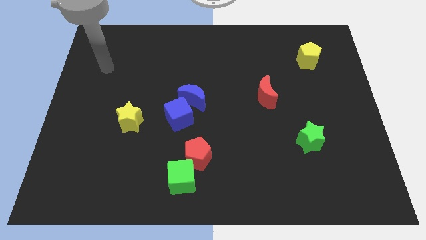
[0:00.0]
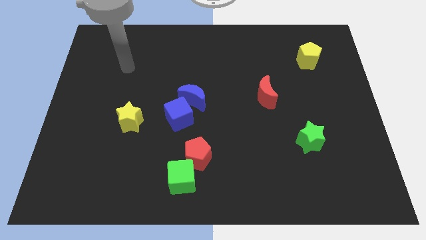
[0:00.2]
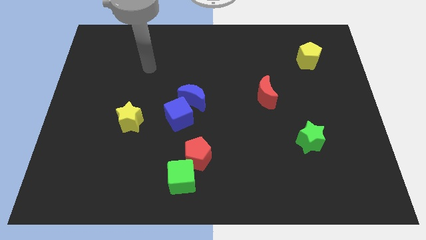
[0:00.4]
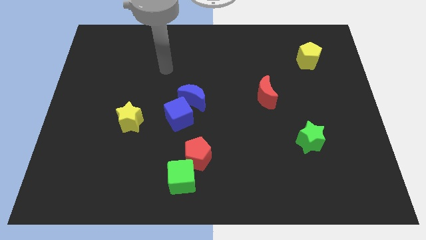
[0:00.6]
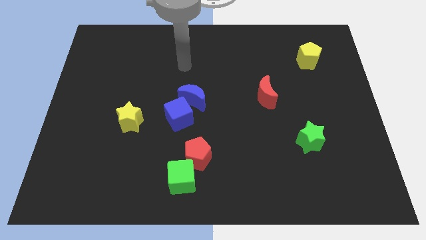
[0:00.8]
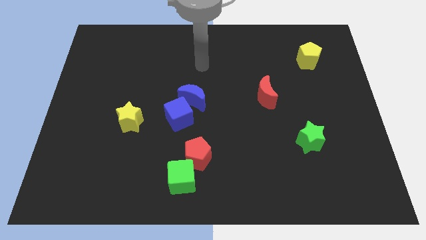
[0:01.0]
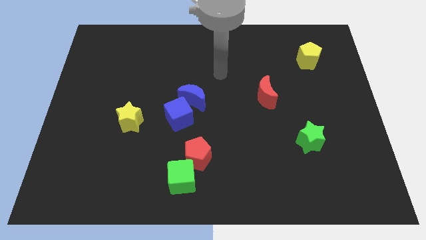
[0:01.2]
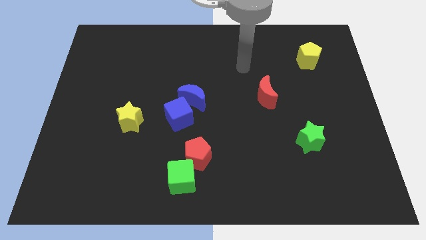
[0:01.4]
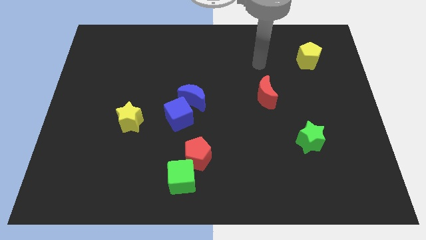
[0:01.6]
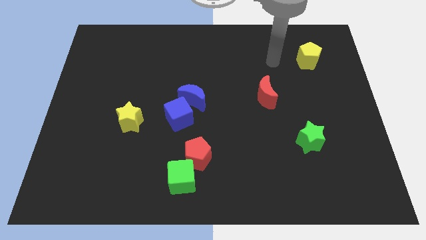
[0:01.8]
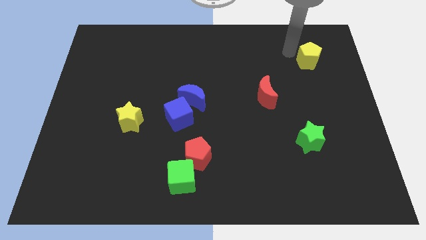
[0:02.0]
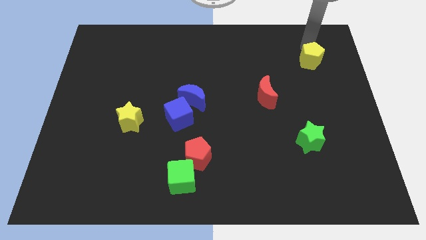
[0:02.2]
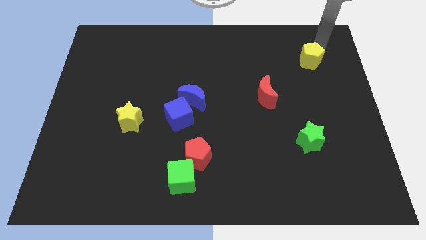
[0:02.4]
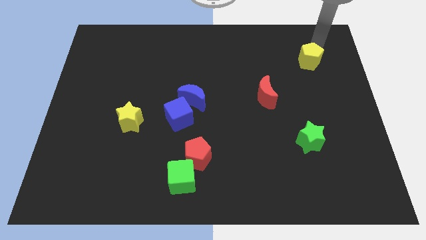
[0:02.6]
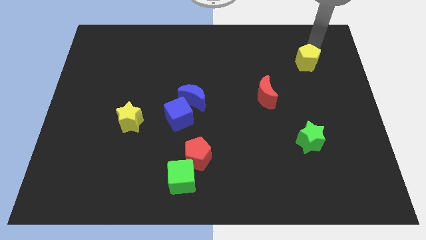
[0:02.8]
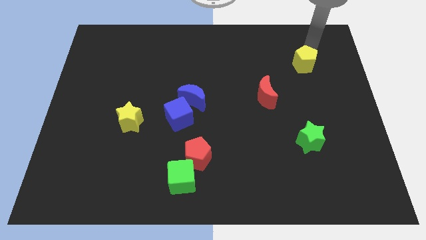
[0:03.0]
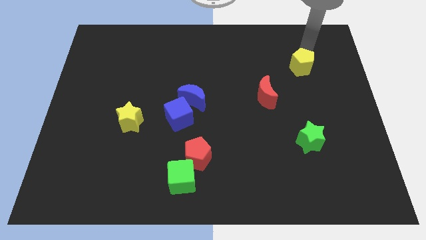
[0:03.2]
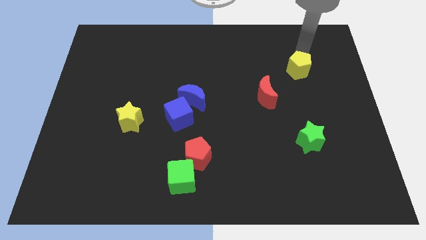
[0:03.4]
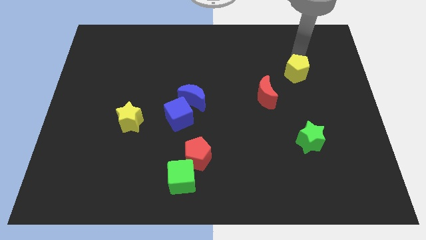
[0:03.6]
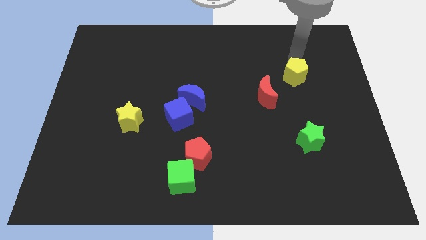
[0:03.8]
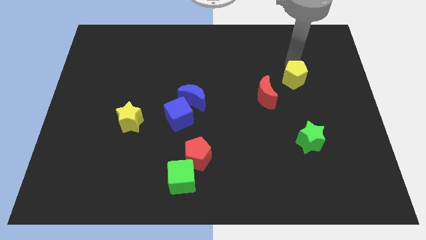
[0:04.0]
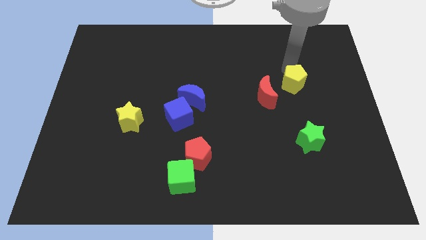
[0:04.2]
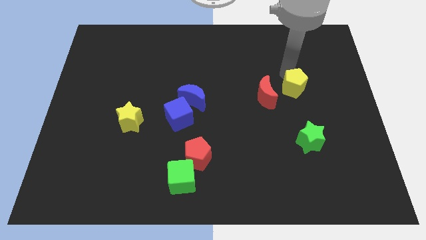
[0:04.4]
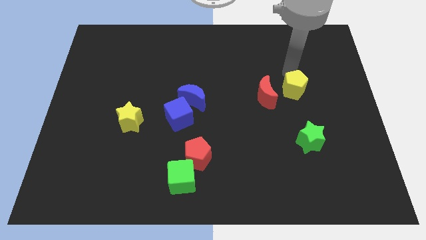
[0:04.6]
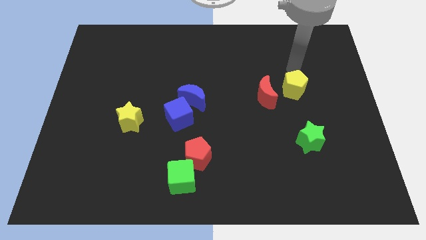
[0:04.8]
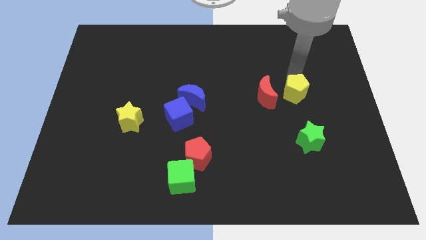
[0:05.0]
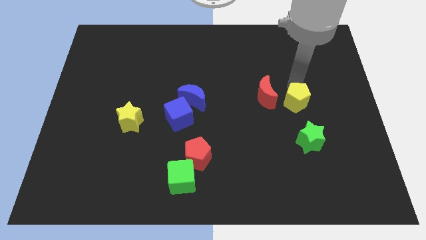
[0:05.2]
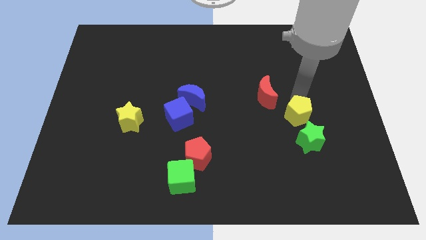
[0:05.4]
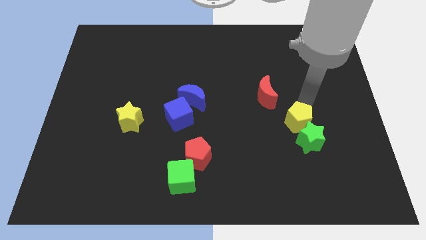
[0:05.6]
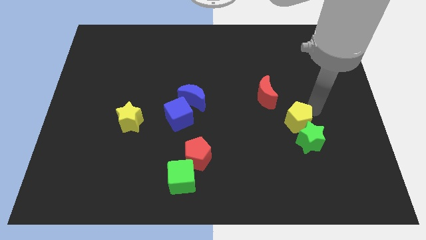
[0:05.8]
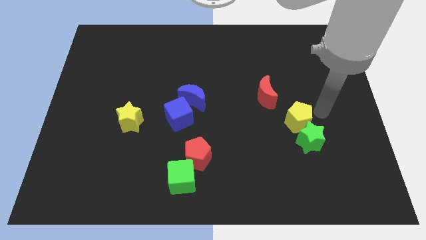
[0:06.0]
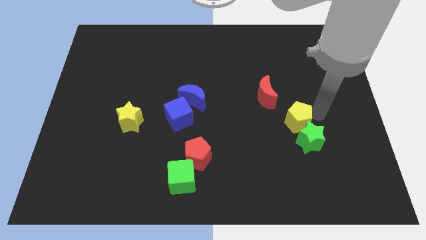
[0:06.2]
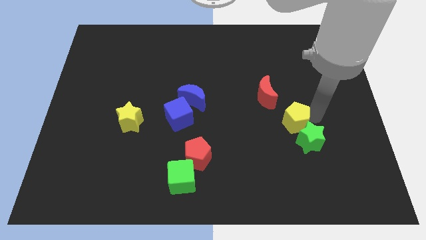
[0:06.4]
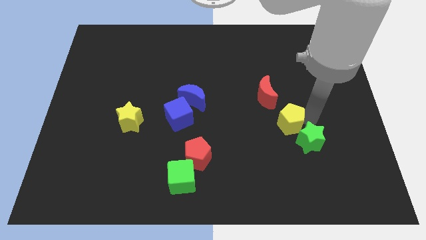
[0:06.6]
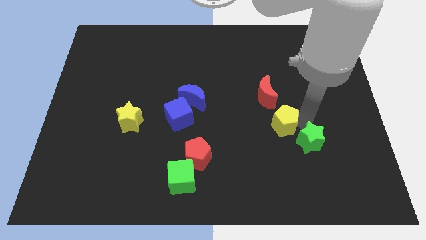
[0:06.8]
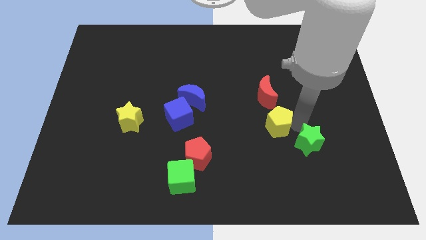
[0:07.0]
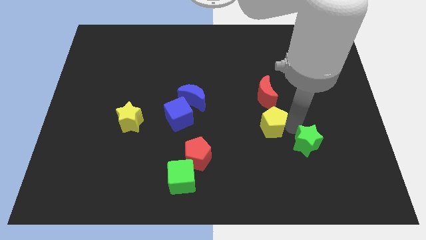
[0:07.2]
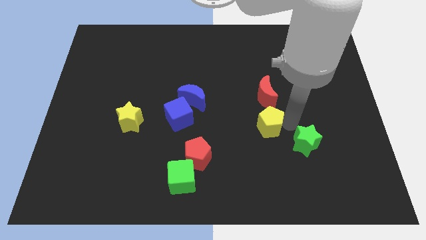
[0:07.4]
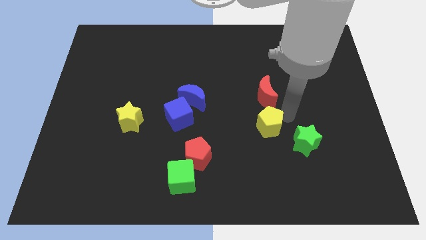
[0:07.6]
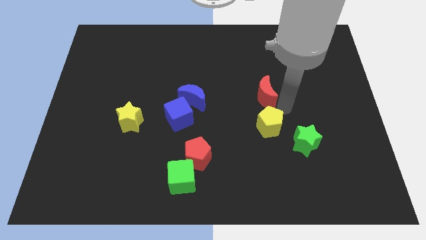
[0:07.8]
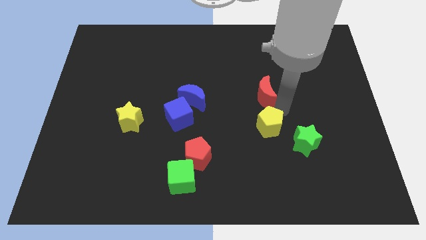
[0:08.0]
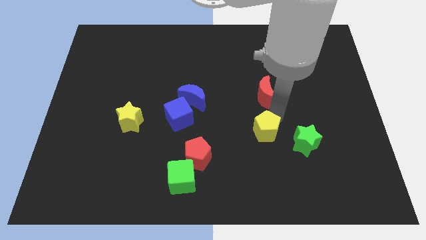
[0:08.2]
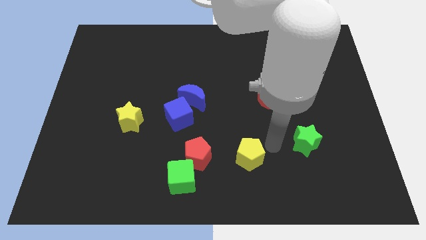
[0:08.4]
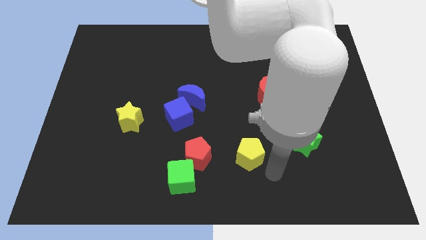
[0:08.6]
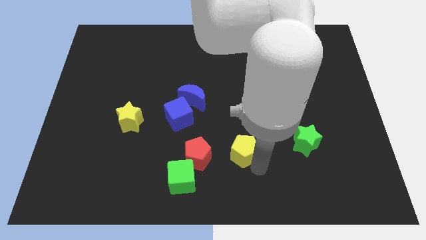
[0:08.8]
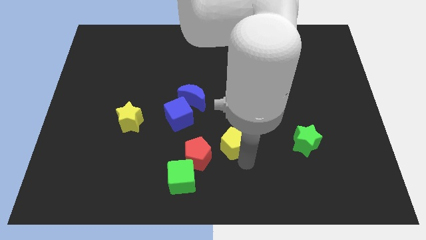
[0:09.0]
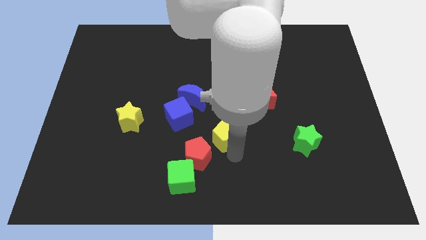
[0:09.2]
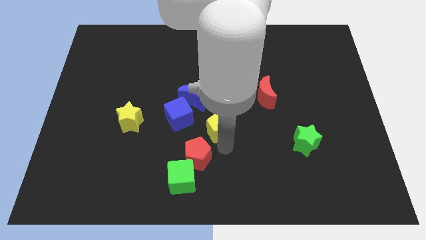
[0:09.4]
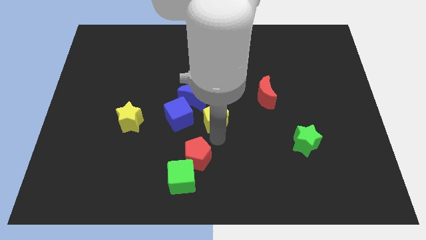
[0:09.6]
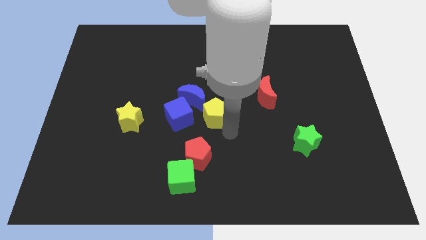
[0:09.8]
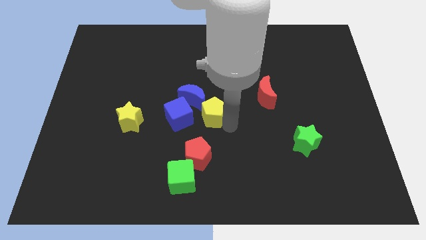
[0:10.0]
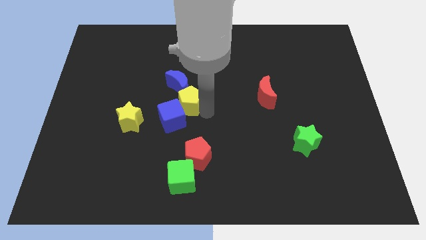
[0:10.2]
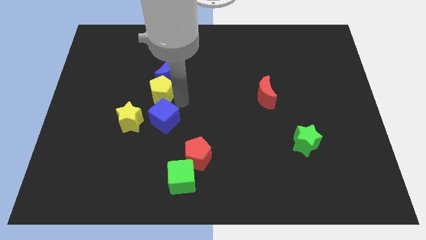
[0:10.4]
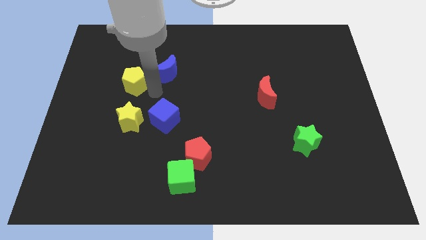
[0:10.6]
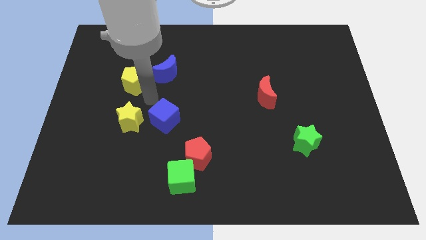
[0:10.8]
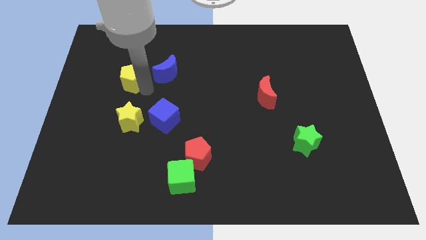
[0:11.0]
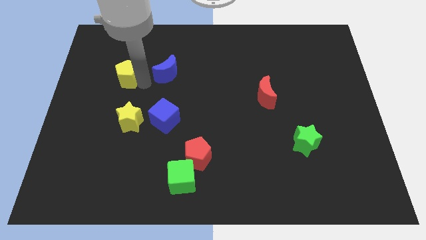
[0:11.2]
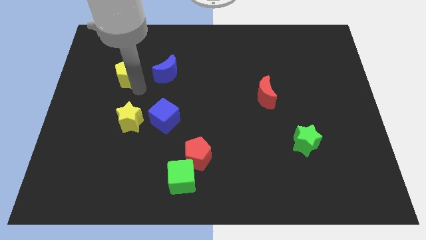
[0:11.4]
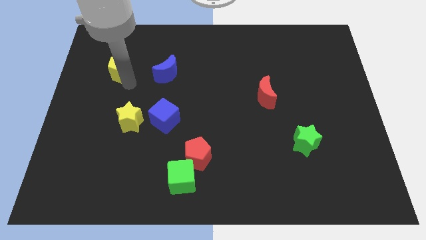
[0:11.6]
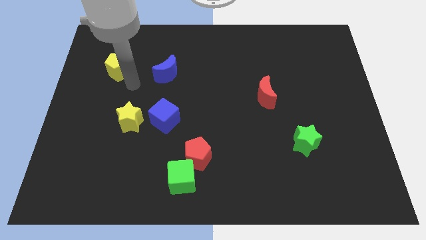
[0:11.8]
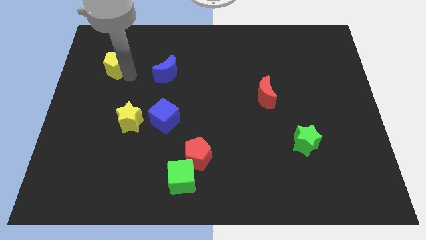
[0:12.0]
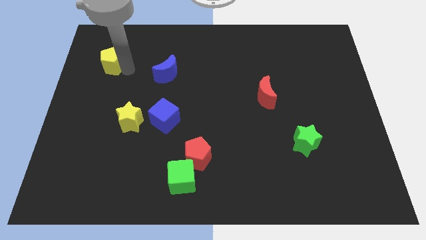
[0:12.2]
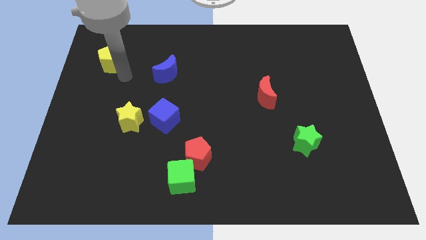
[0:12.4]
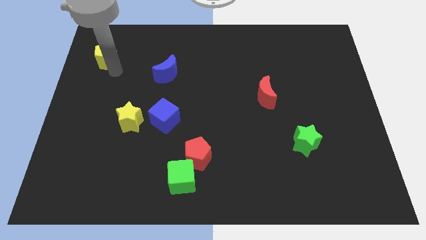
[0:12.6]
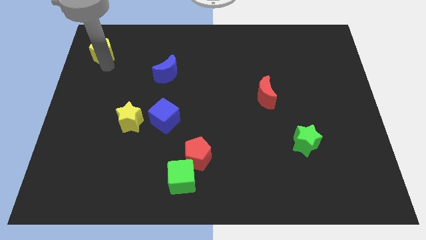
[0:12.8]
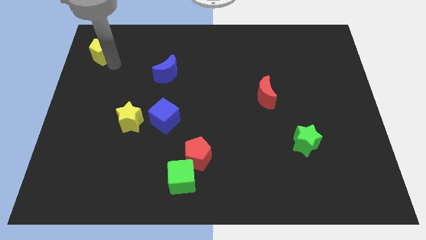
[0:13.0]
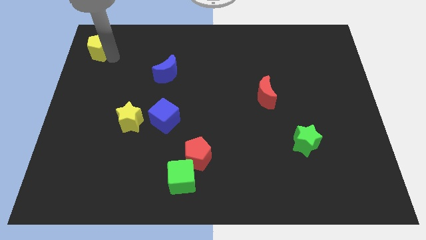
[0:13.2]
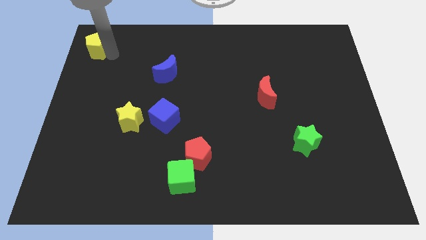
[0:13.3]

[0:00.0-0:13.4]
move the yellow pentagon to the top left
